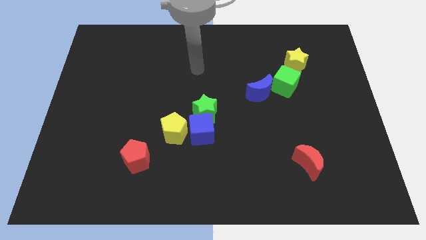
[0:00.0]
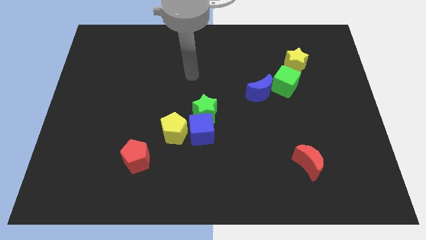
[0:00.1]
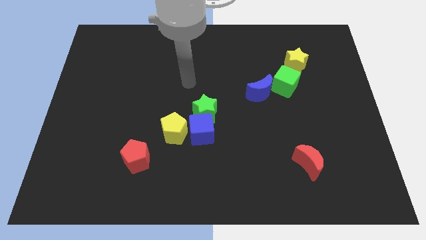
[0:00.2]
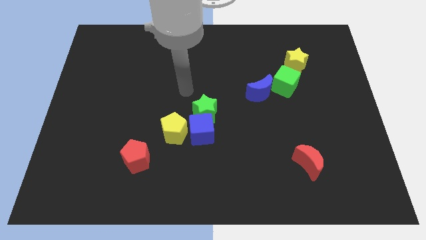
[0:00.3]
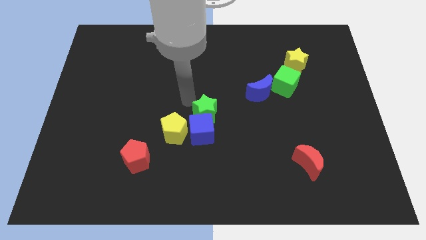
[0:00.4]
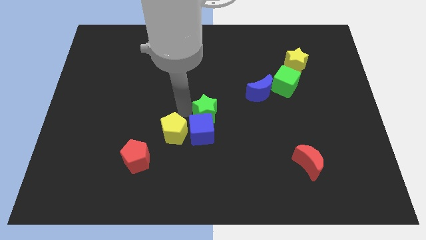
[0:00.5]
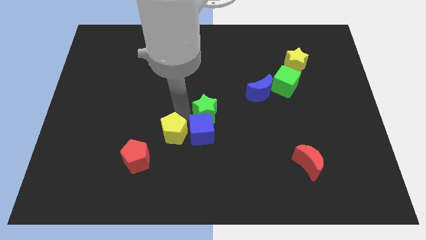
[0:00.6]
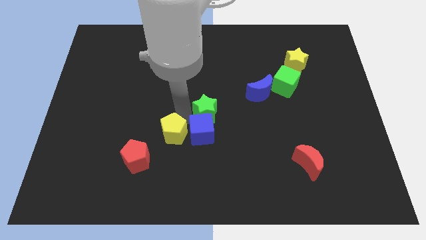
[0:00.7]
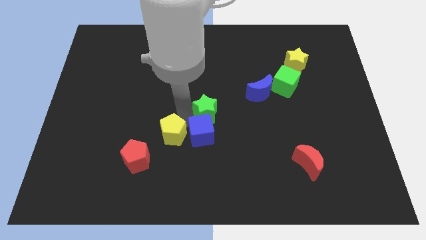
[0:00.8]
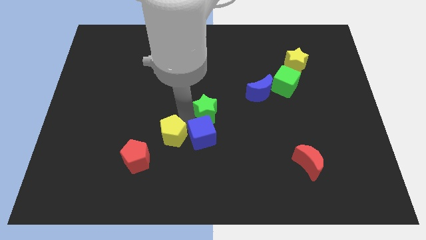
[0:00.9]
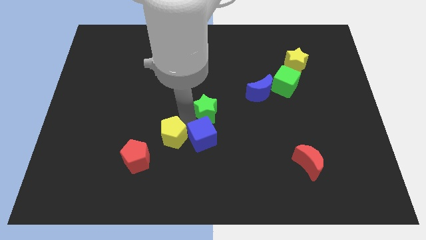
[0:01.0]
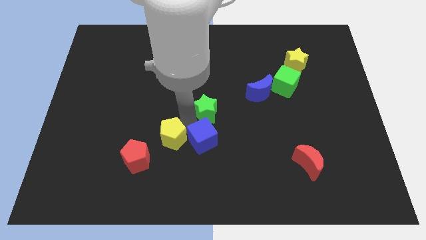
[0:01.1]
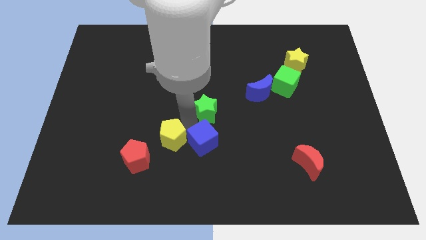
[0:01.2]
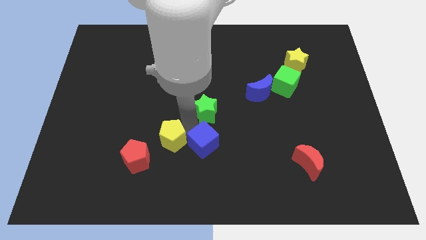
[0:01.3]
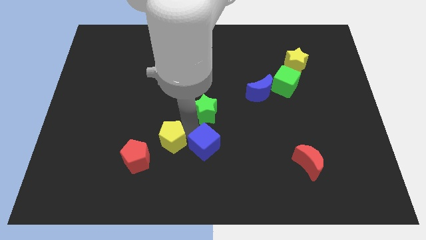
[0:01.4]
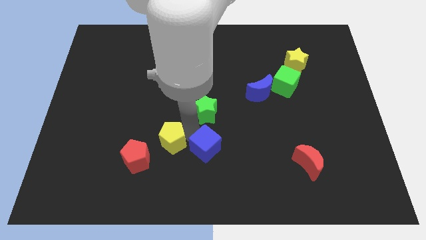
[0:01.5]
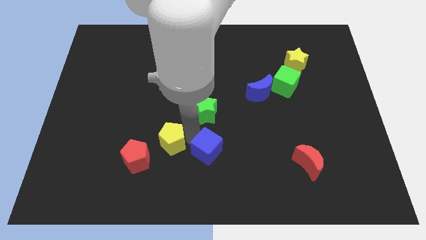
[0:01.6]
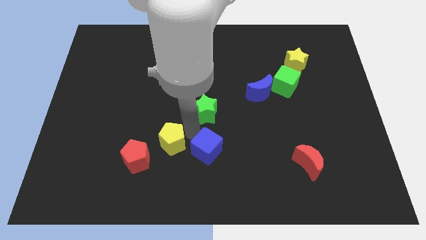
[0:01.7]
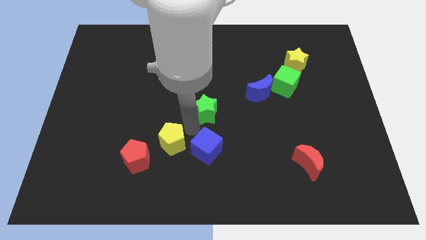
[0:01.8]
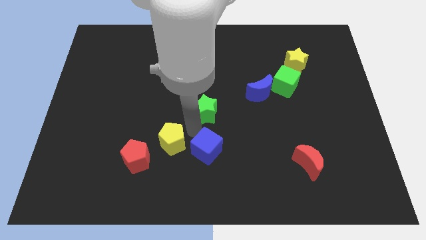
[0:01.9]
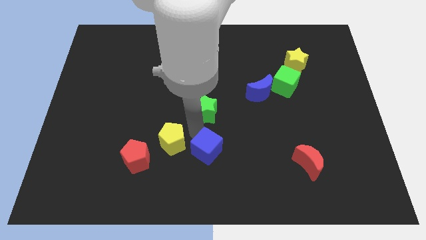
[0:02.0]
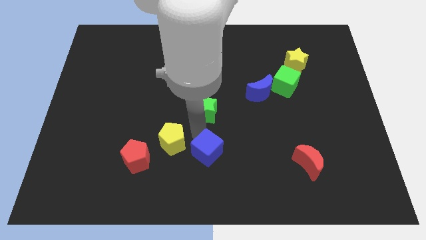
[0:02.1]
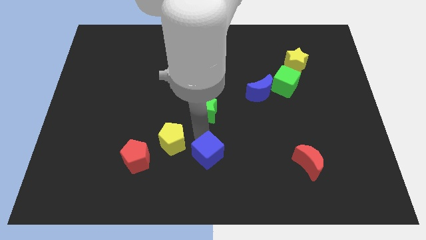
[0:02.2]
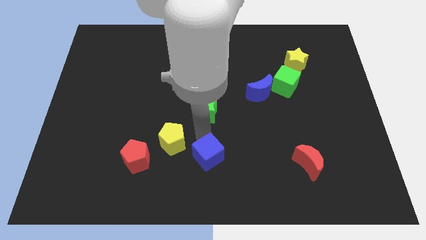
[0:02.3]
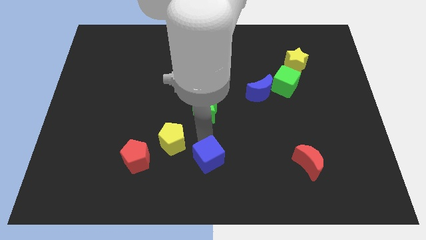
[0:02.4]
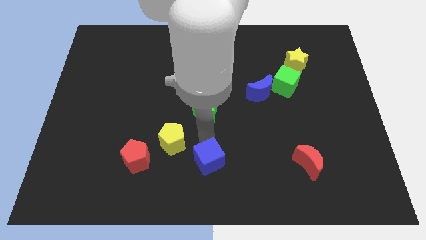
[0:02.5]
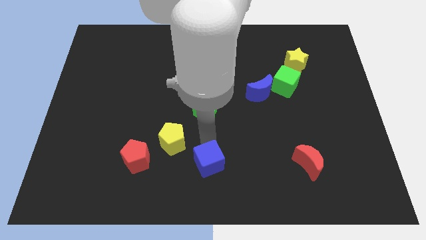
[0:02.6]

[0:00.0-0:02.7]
pull the blue cube apart from the green star and yellow pentagon

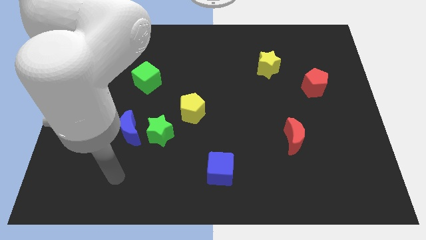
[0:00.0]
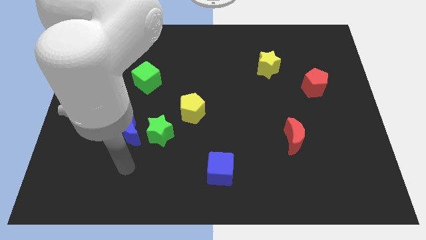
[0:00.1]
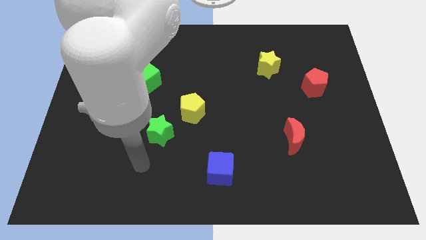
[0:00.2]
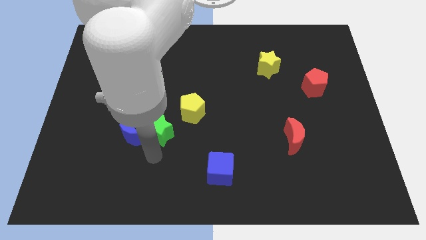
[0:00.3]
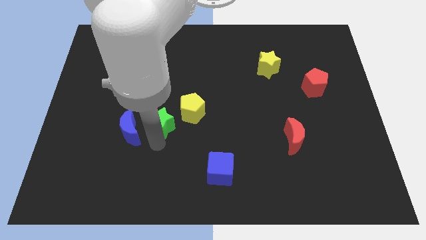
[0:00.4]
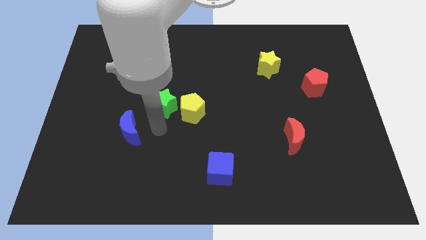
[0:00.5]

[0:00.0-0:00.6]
pull the blue moon apart from the green star

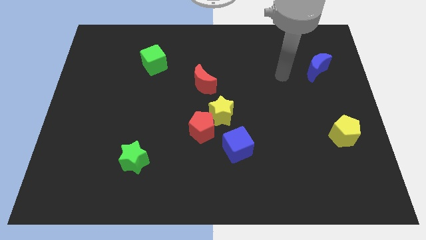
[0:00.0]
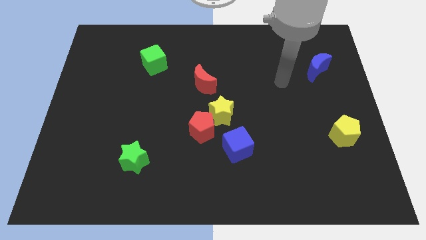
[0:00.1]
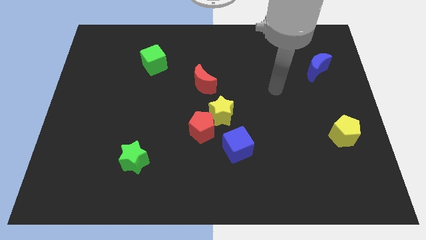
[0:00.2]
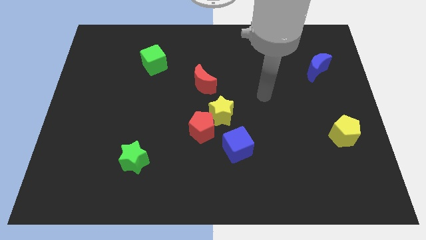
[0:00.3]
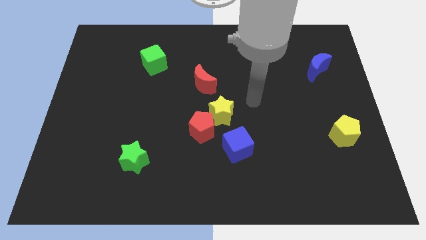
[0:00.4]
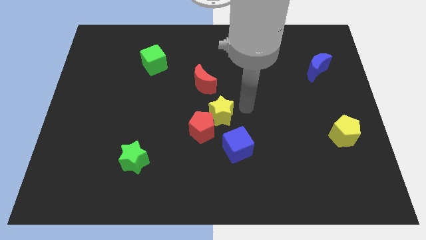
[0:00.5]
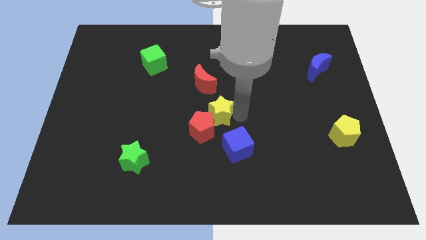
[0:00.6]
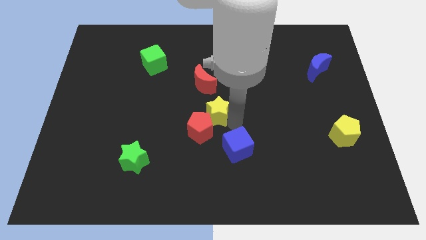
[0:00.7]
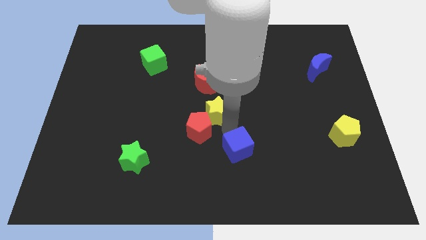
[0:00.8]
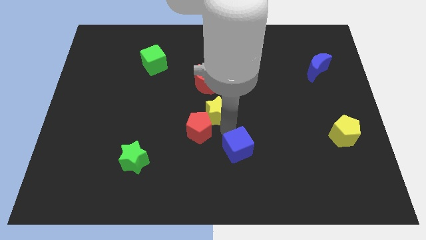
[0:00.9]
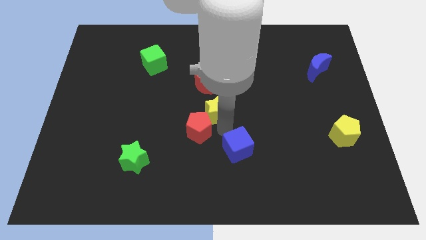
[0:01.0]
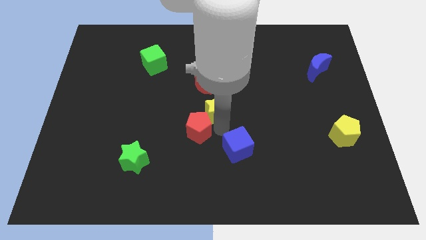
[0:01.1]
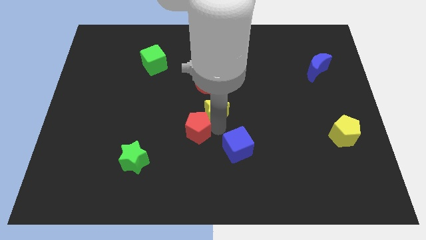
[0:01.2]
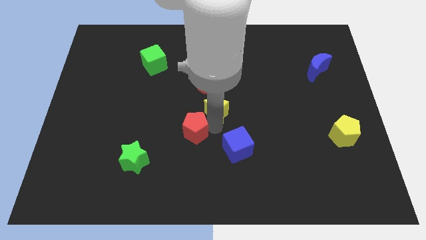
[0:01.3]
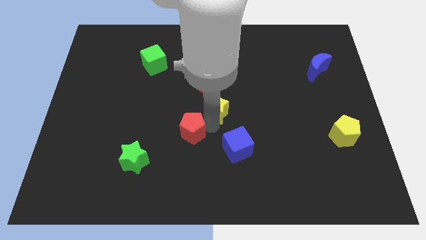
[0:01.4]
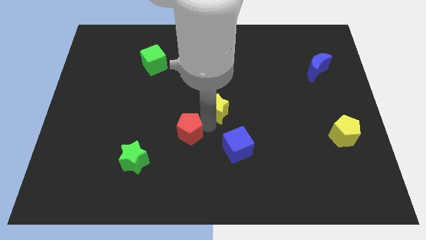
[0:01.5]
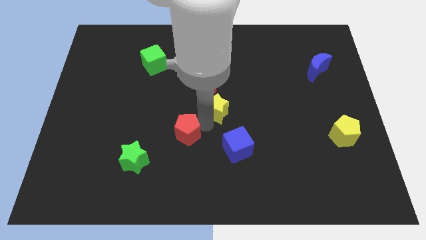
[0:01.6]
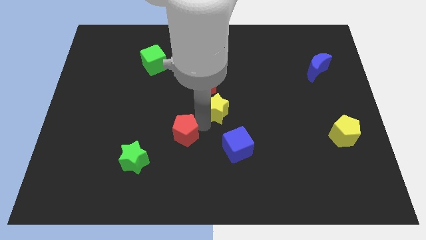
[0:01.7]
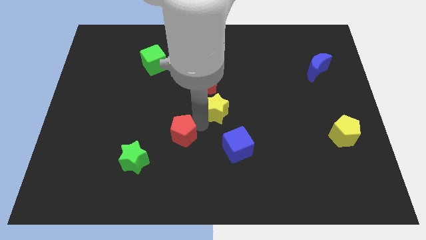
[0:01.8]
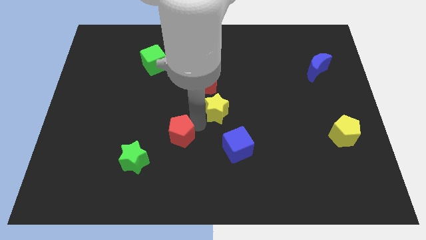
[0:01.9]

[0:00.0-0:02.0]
separate the red pentagon from the yellow star and blue cube

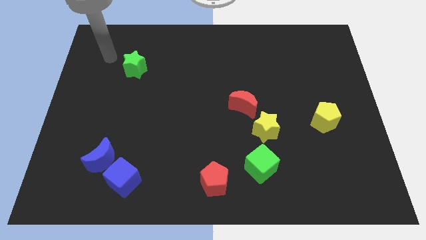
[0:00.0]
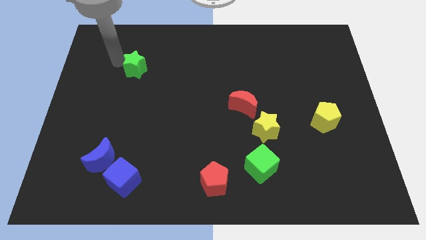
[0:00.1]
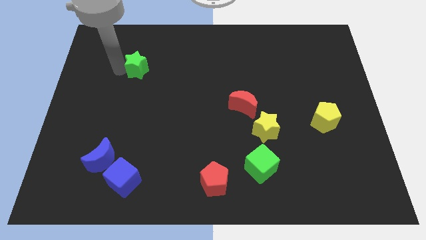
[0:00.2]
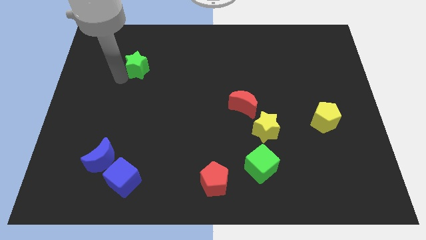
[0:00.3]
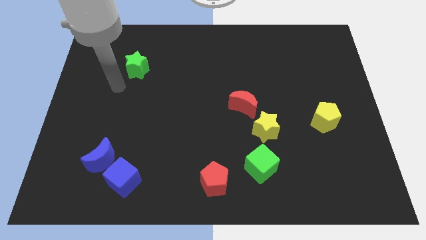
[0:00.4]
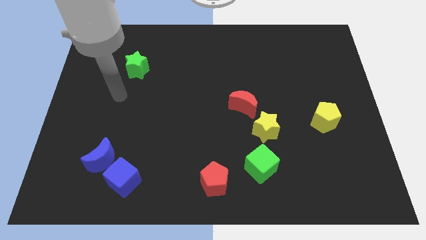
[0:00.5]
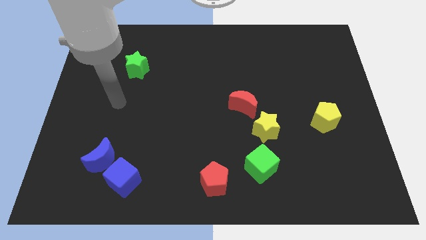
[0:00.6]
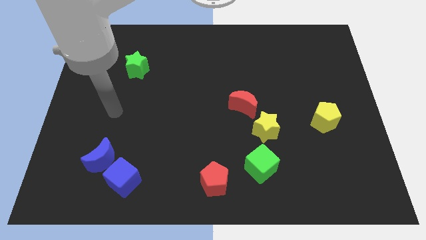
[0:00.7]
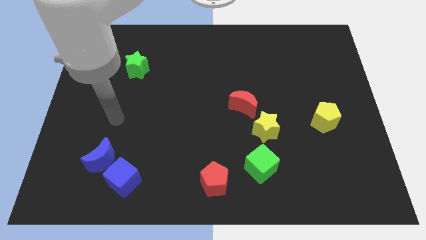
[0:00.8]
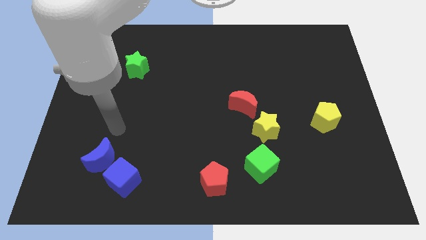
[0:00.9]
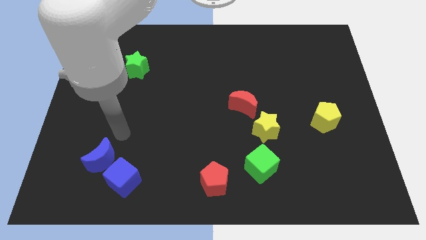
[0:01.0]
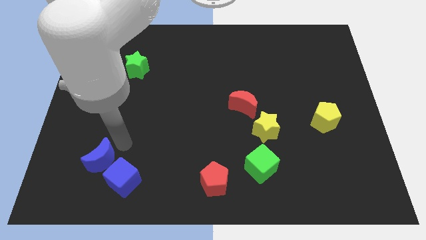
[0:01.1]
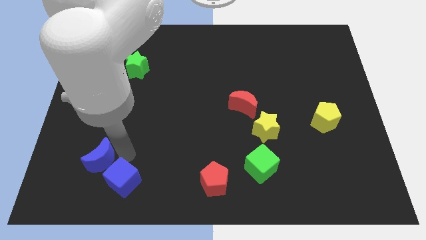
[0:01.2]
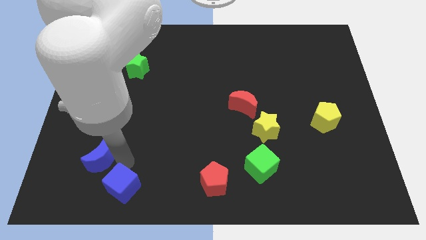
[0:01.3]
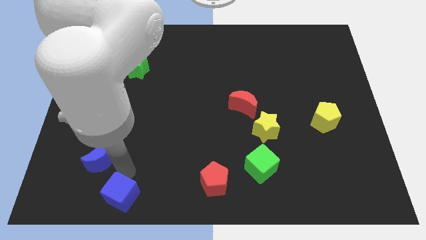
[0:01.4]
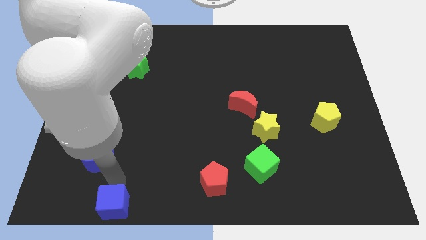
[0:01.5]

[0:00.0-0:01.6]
pull the blue moon apart from the blue cube

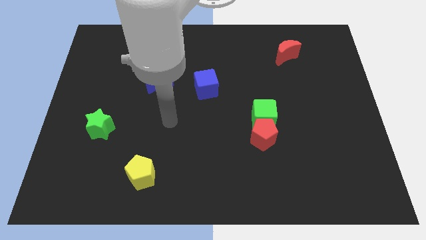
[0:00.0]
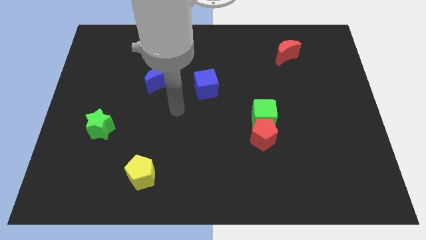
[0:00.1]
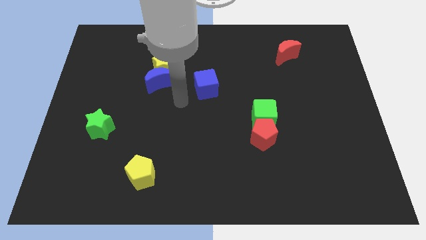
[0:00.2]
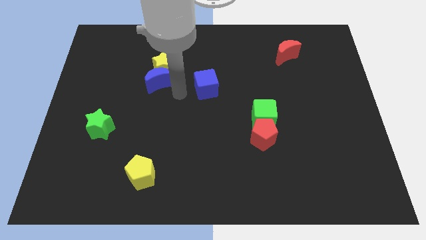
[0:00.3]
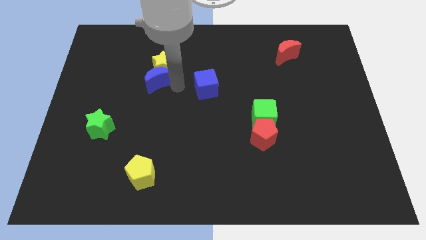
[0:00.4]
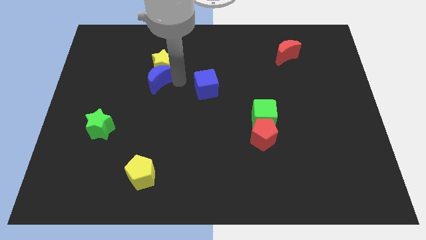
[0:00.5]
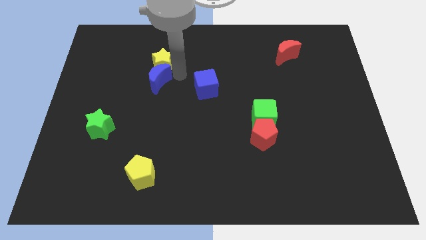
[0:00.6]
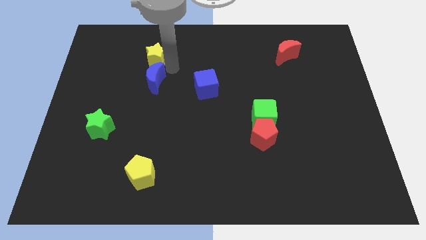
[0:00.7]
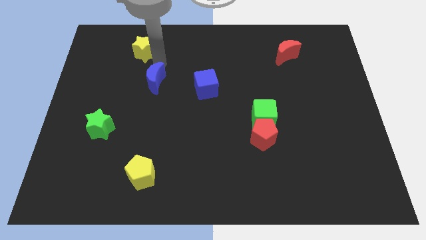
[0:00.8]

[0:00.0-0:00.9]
pull the blue moon apart from the yellow star

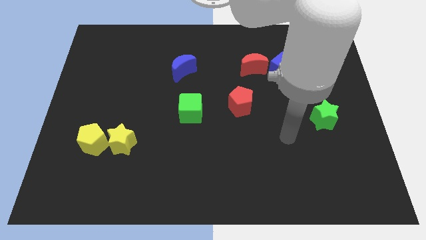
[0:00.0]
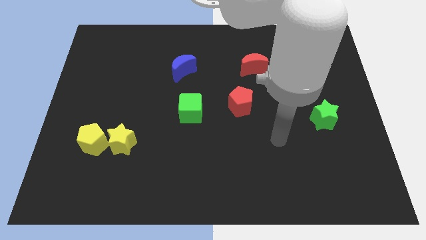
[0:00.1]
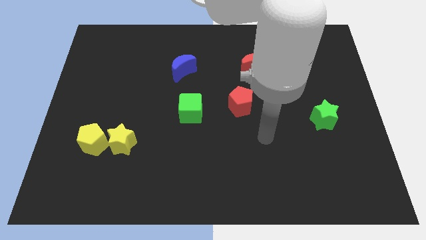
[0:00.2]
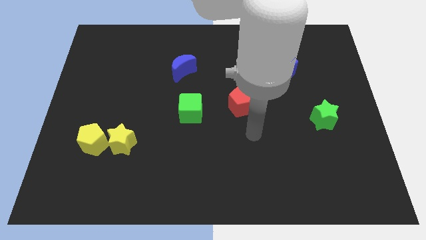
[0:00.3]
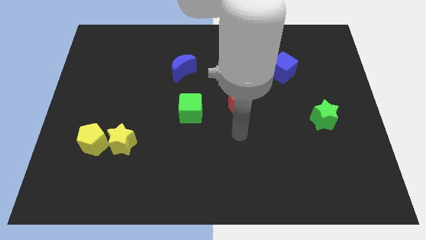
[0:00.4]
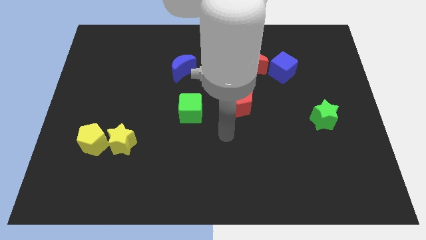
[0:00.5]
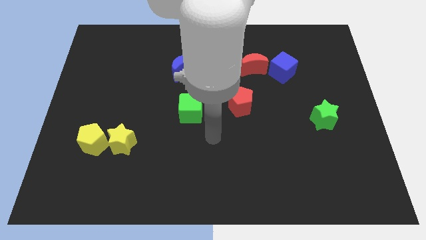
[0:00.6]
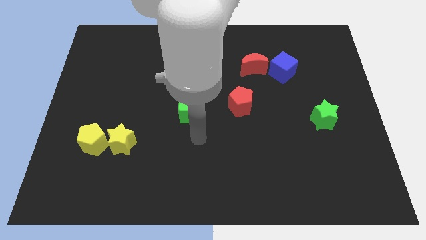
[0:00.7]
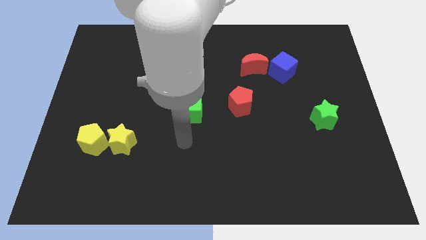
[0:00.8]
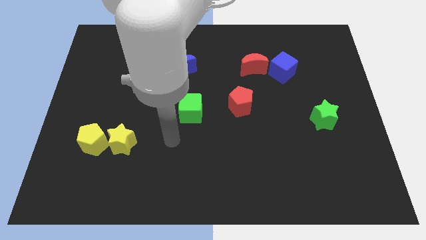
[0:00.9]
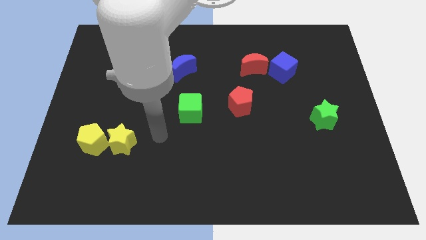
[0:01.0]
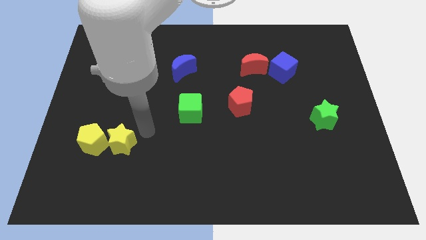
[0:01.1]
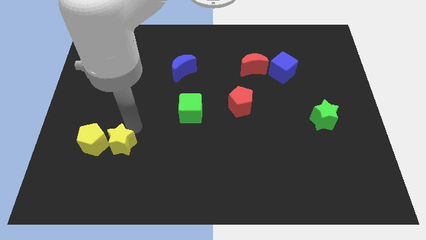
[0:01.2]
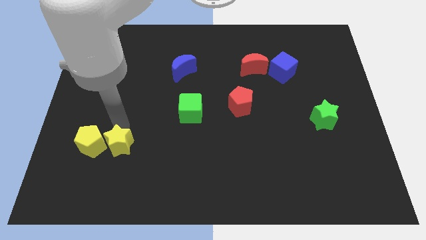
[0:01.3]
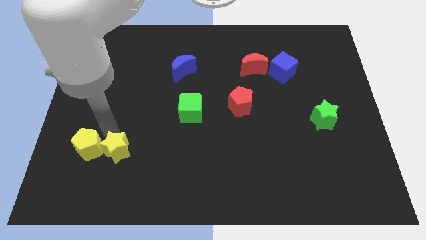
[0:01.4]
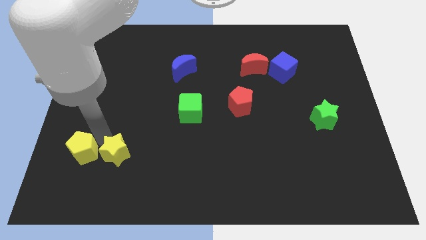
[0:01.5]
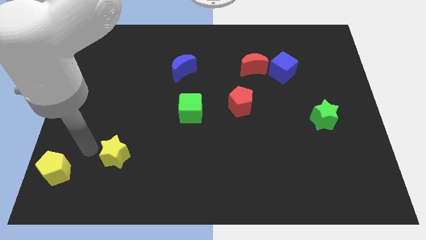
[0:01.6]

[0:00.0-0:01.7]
pull the yellow star apart from the yellow pentagon
